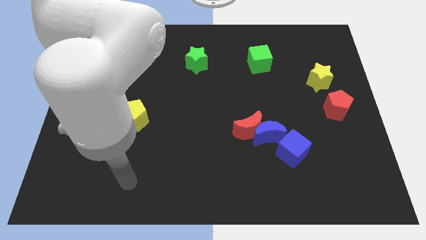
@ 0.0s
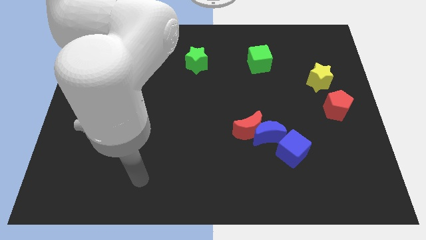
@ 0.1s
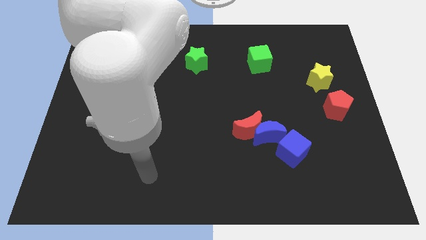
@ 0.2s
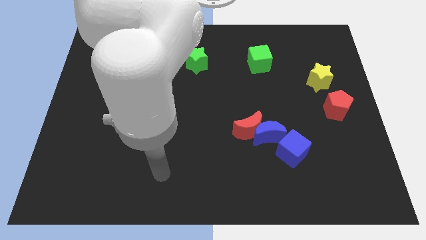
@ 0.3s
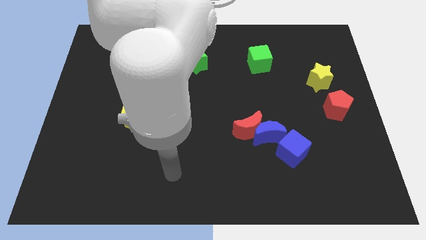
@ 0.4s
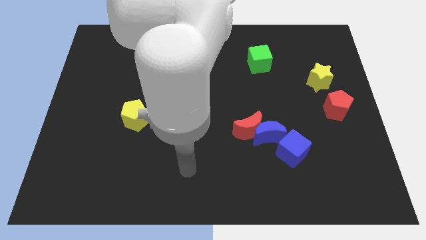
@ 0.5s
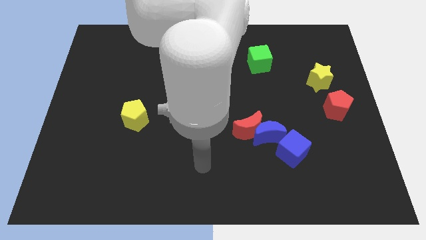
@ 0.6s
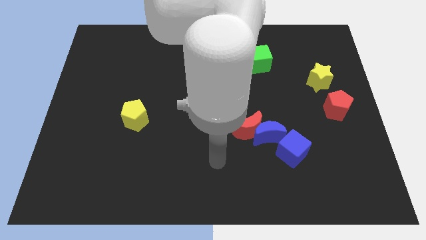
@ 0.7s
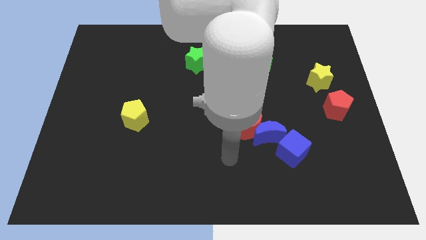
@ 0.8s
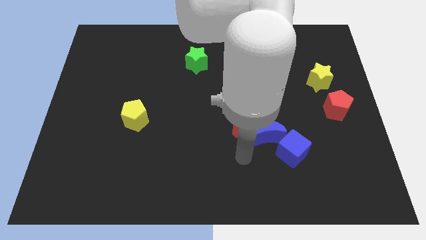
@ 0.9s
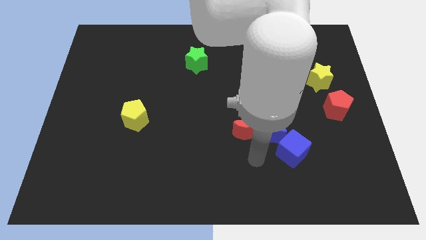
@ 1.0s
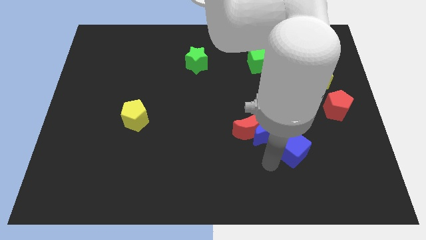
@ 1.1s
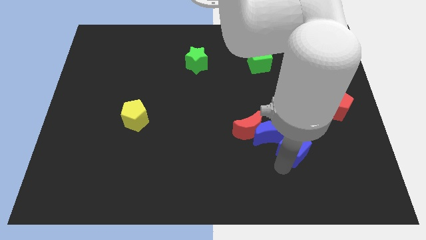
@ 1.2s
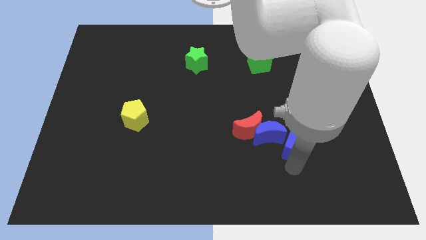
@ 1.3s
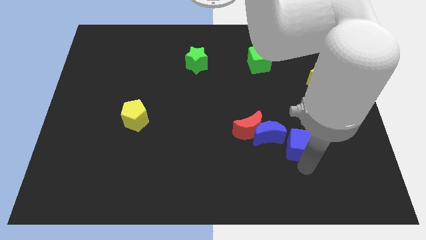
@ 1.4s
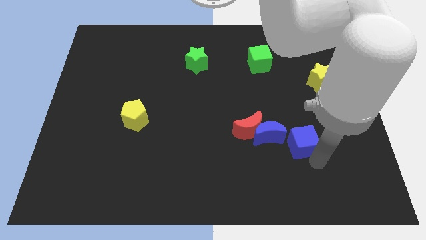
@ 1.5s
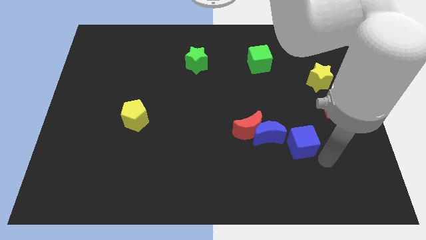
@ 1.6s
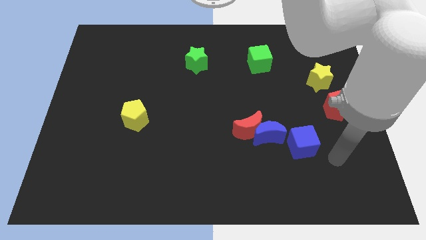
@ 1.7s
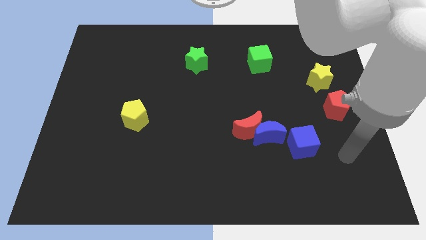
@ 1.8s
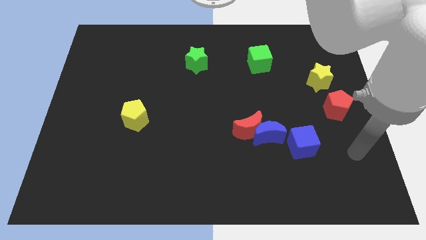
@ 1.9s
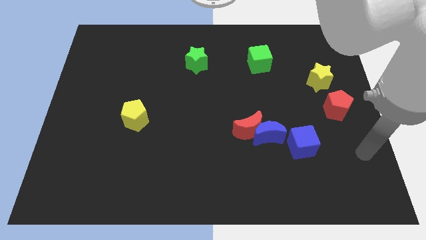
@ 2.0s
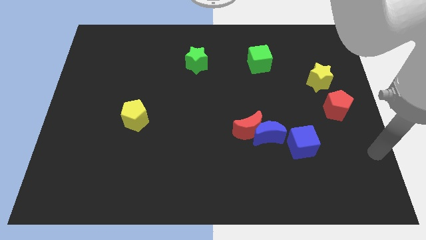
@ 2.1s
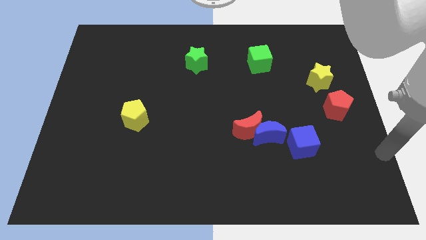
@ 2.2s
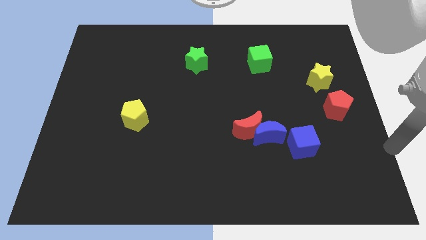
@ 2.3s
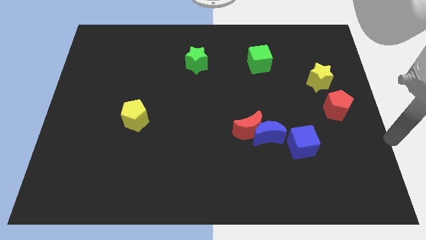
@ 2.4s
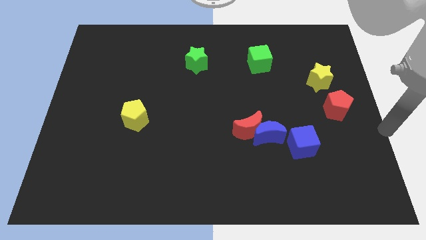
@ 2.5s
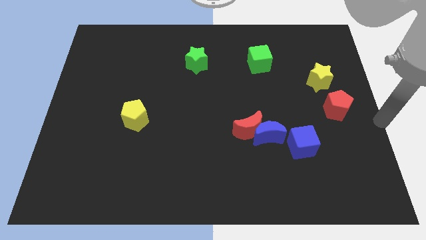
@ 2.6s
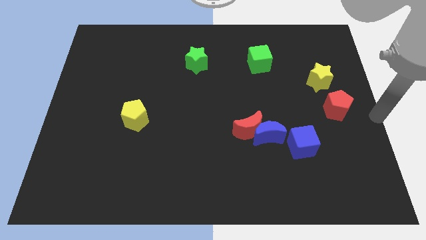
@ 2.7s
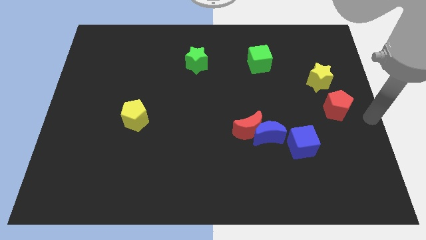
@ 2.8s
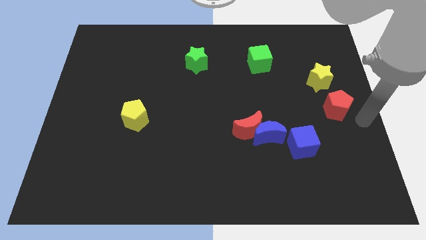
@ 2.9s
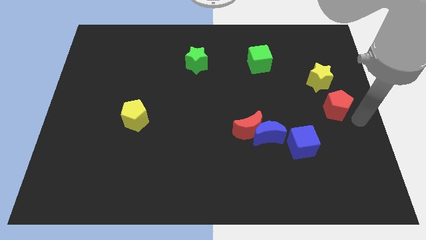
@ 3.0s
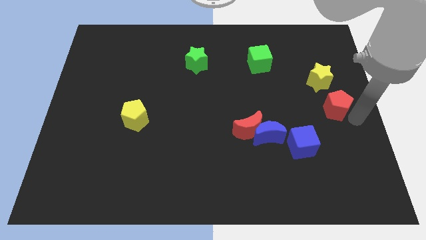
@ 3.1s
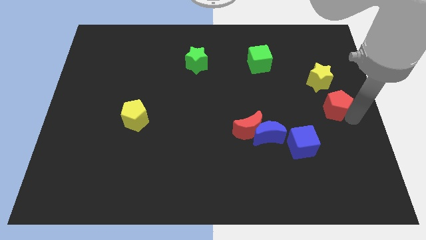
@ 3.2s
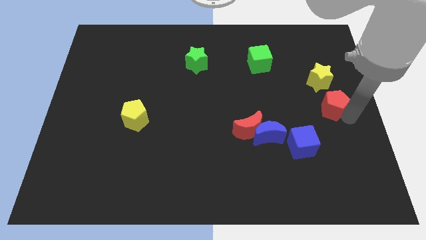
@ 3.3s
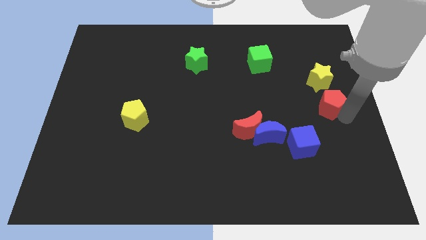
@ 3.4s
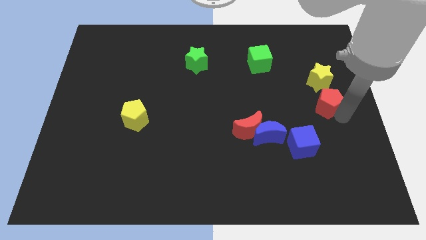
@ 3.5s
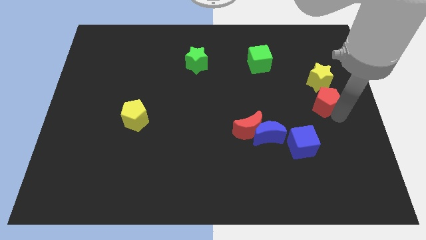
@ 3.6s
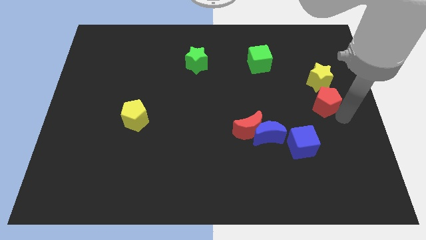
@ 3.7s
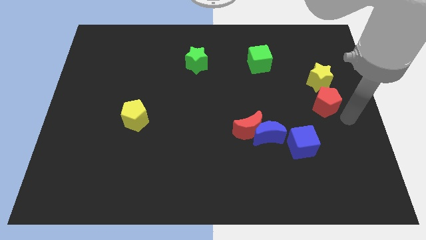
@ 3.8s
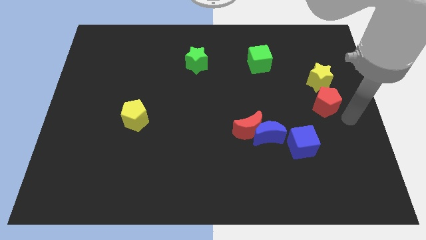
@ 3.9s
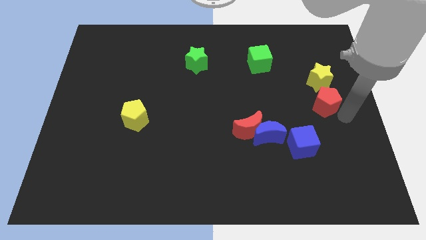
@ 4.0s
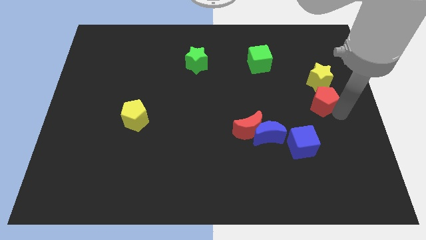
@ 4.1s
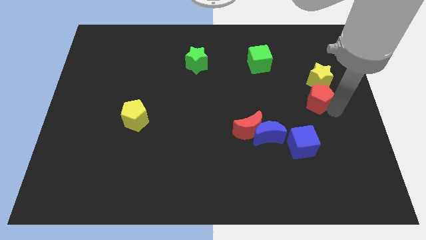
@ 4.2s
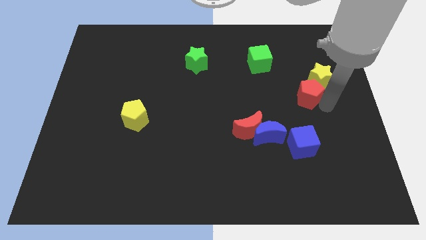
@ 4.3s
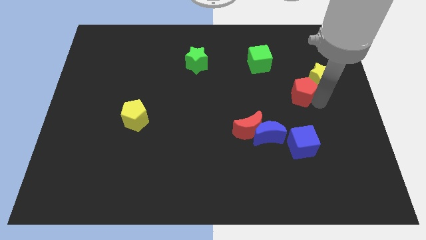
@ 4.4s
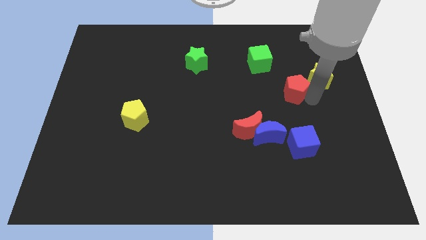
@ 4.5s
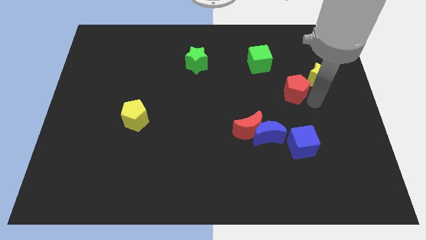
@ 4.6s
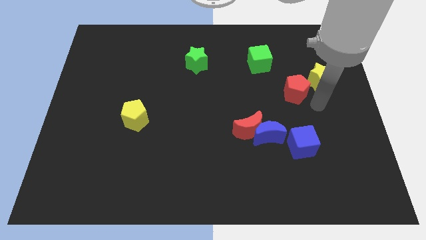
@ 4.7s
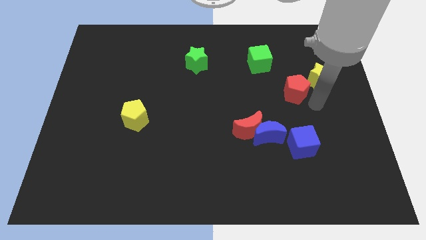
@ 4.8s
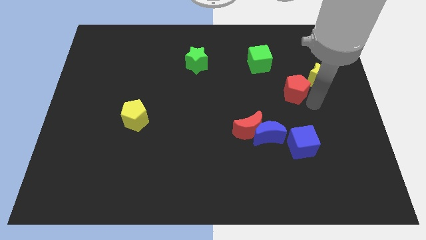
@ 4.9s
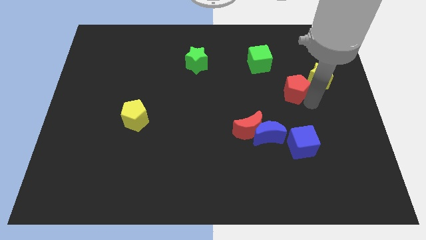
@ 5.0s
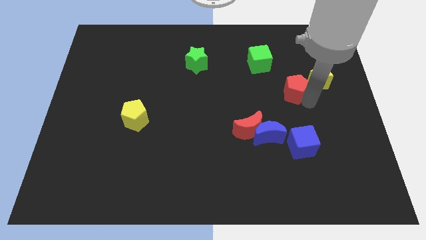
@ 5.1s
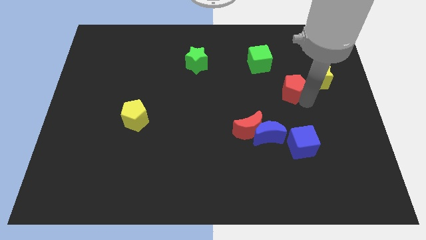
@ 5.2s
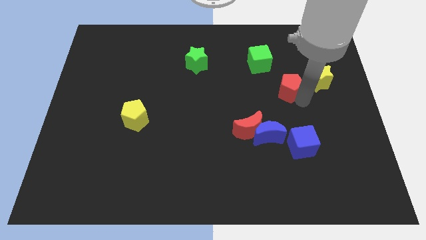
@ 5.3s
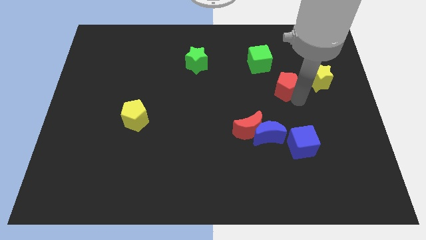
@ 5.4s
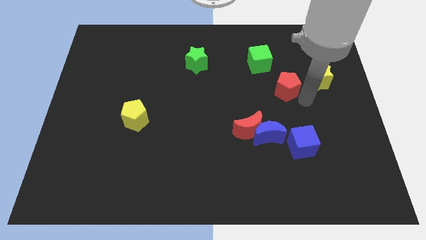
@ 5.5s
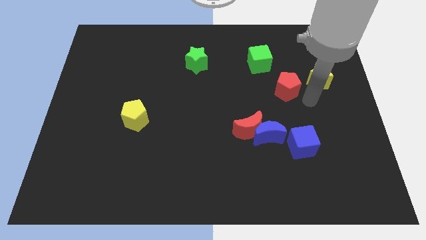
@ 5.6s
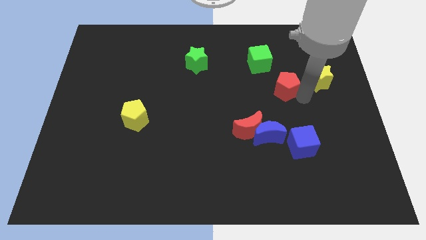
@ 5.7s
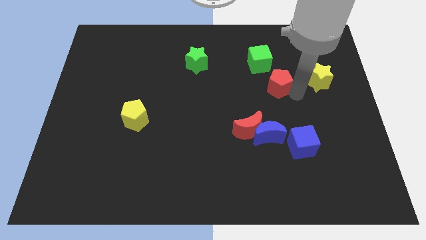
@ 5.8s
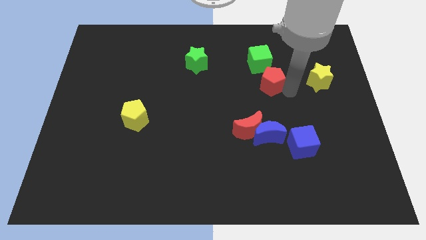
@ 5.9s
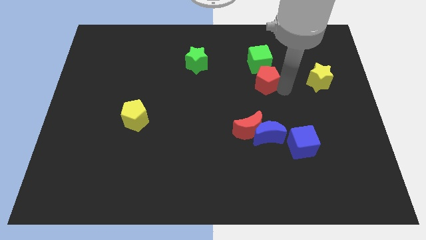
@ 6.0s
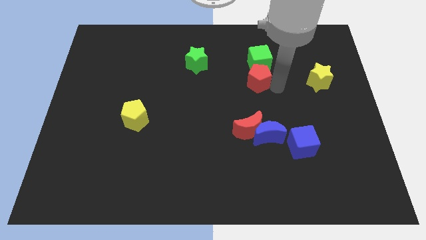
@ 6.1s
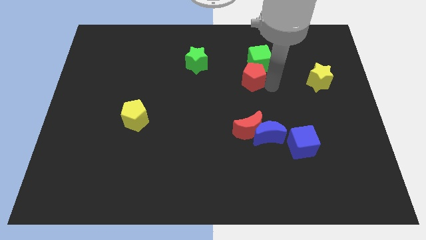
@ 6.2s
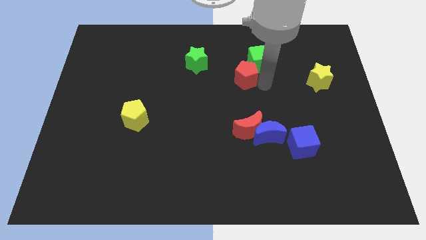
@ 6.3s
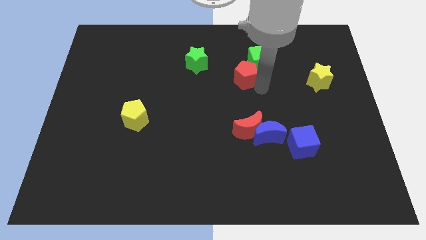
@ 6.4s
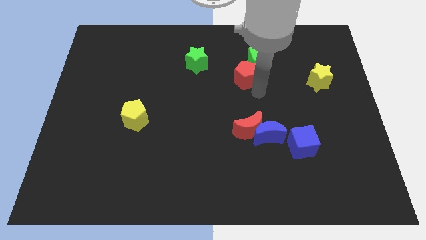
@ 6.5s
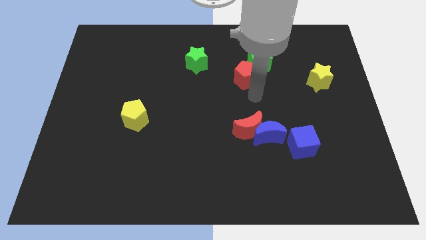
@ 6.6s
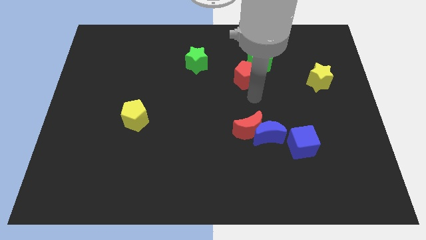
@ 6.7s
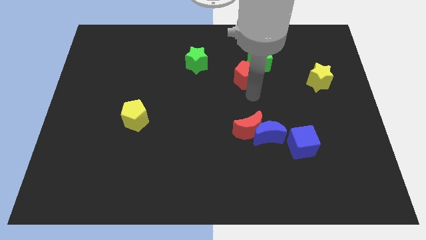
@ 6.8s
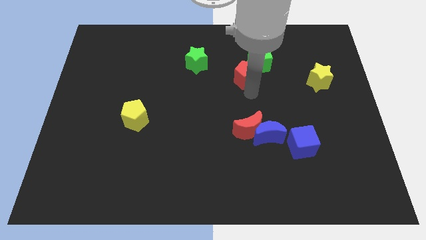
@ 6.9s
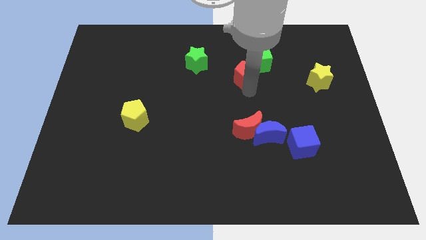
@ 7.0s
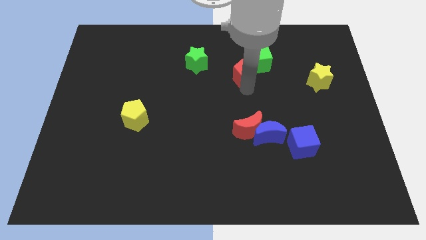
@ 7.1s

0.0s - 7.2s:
put the red pentagon just right of the green star
